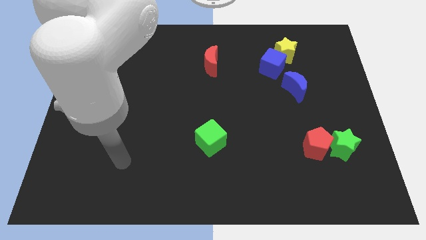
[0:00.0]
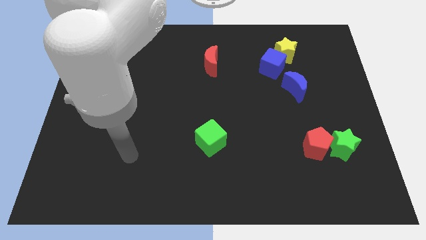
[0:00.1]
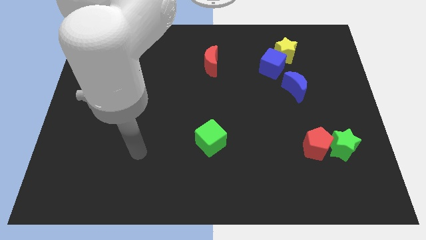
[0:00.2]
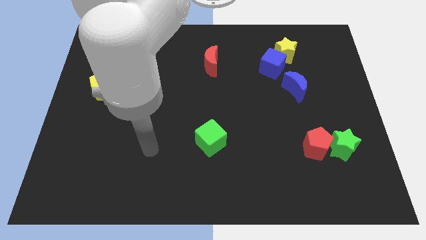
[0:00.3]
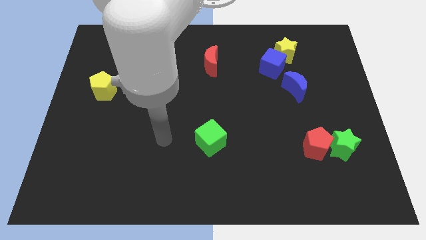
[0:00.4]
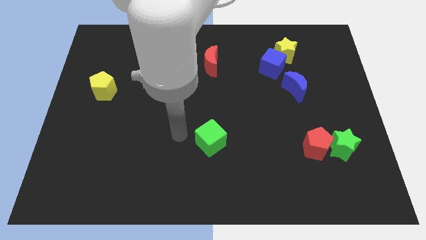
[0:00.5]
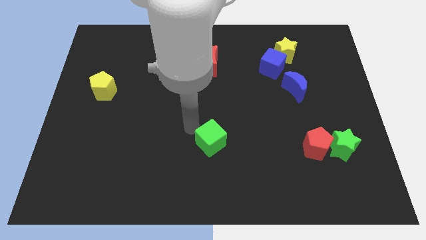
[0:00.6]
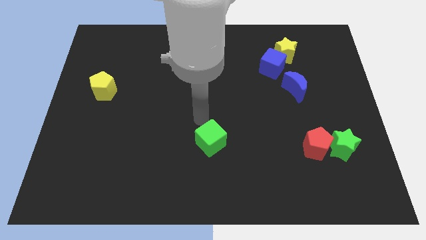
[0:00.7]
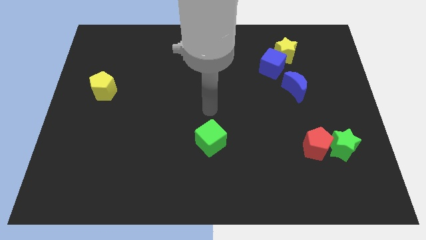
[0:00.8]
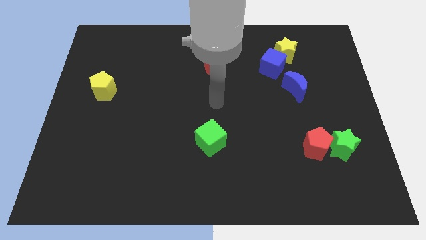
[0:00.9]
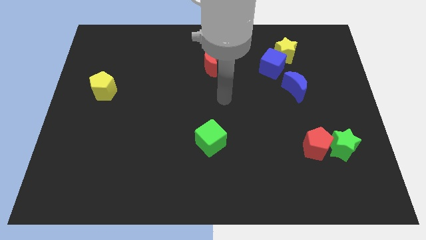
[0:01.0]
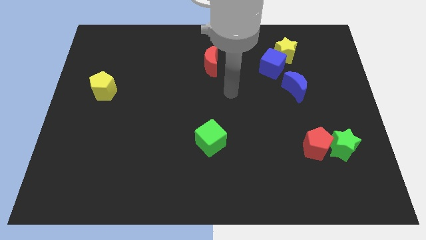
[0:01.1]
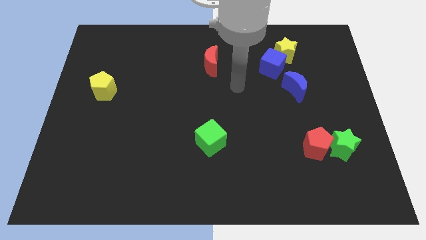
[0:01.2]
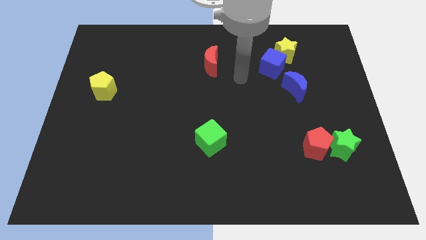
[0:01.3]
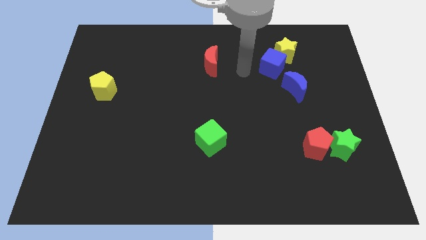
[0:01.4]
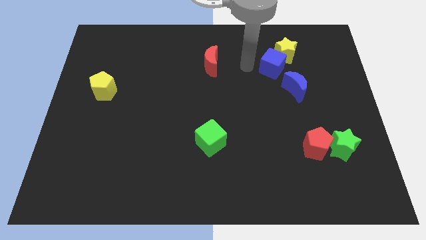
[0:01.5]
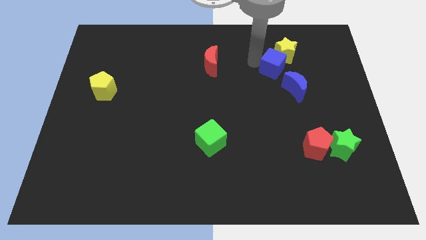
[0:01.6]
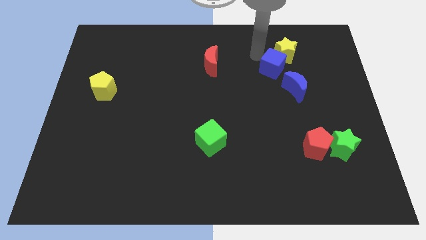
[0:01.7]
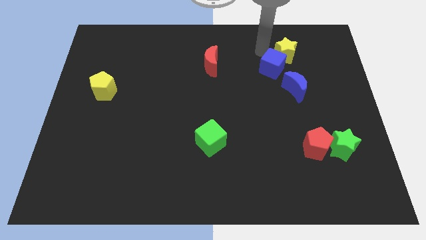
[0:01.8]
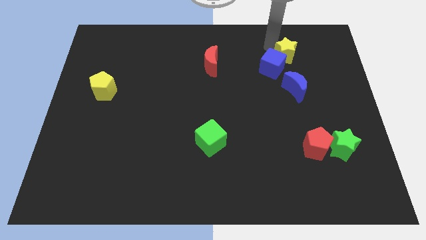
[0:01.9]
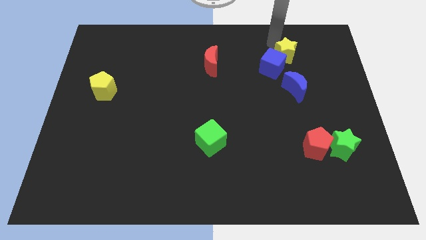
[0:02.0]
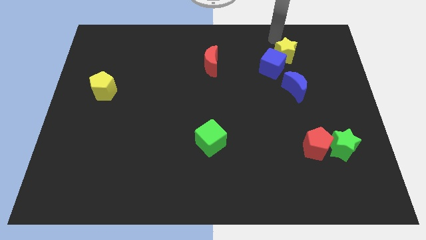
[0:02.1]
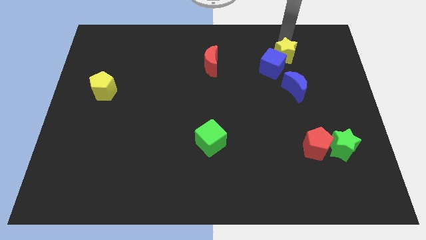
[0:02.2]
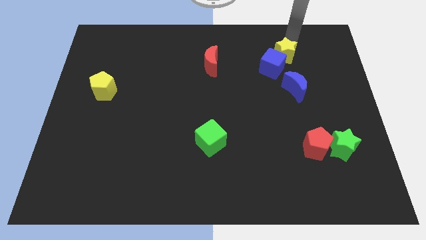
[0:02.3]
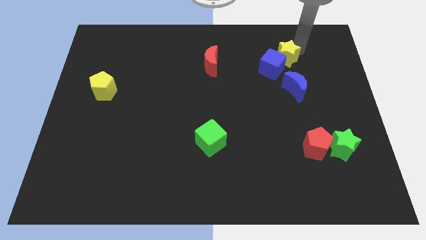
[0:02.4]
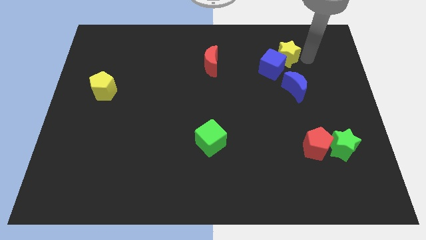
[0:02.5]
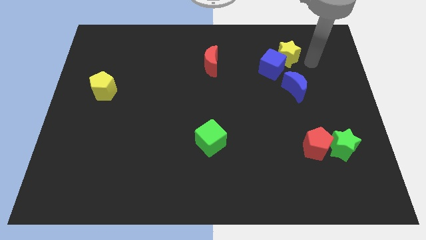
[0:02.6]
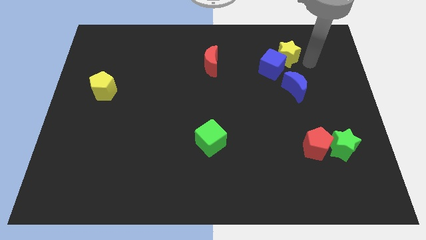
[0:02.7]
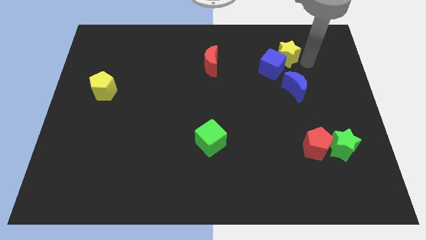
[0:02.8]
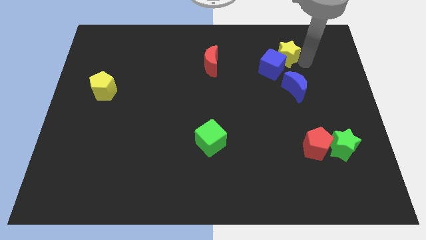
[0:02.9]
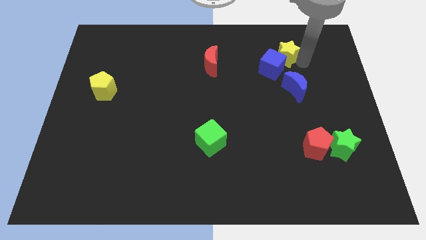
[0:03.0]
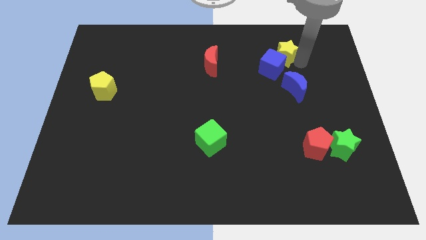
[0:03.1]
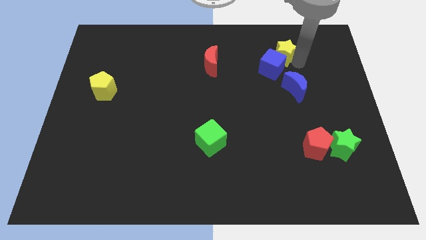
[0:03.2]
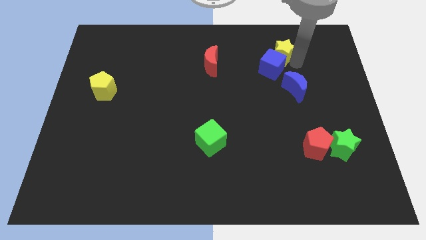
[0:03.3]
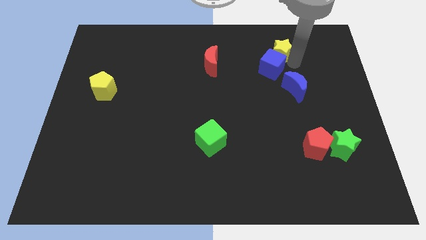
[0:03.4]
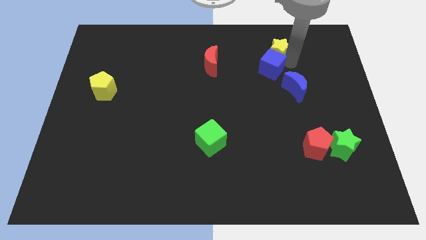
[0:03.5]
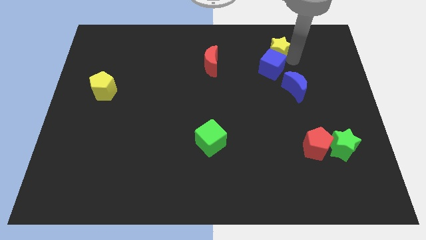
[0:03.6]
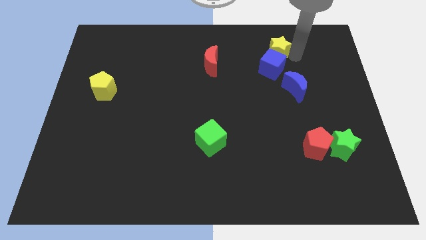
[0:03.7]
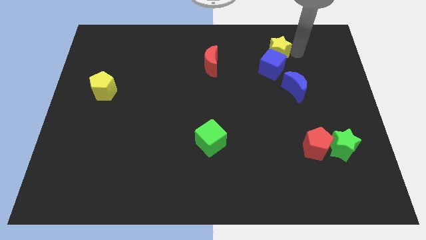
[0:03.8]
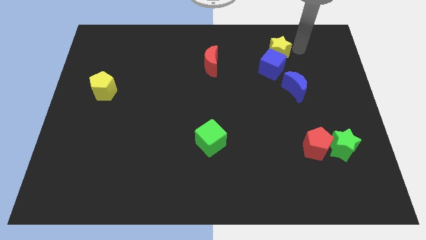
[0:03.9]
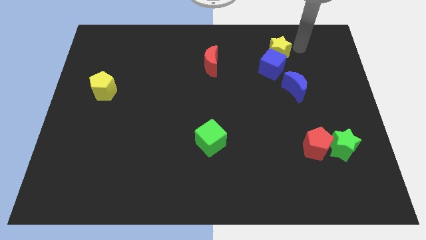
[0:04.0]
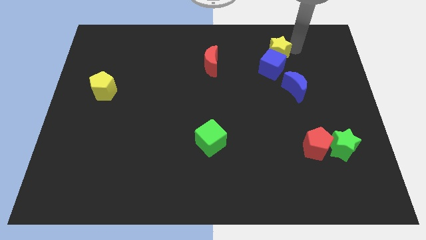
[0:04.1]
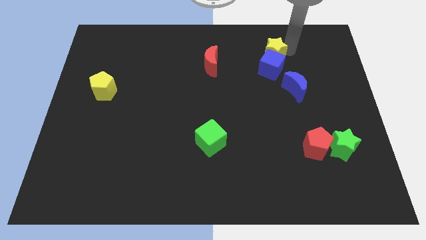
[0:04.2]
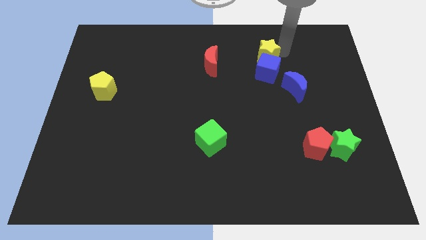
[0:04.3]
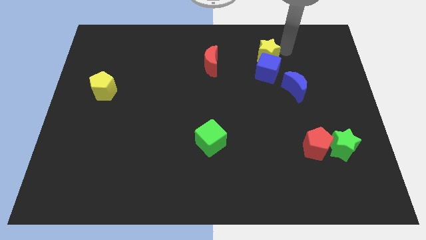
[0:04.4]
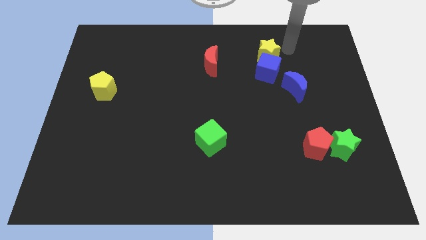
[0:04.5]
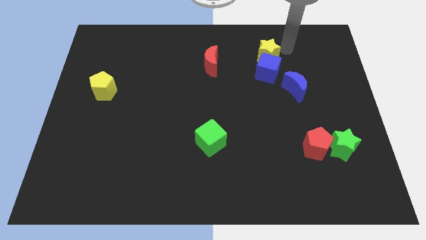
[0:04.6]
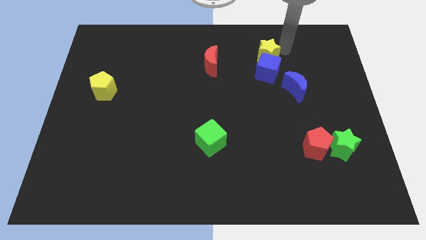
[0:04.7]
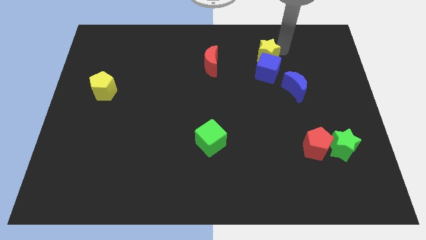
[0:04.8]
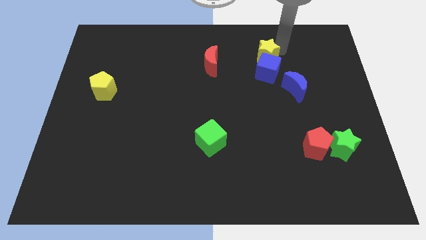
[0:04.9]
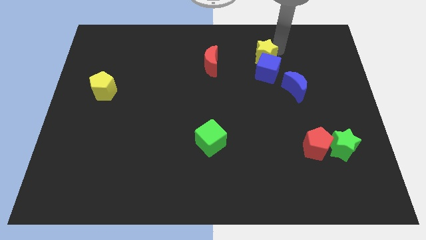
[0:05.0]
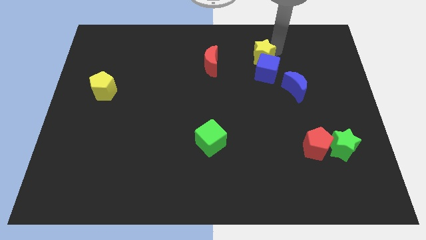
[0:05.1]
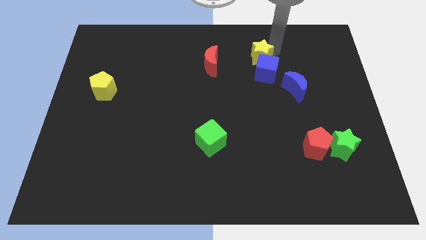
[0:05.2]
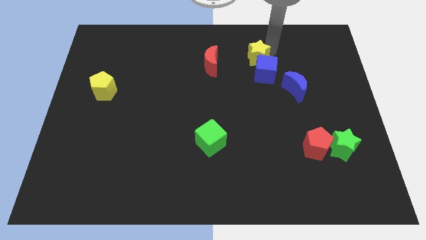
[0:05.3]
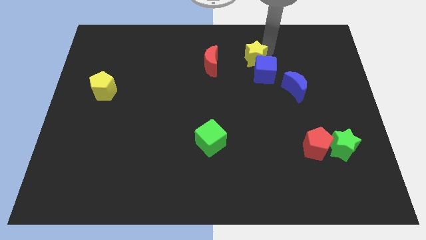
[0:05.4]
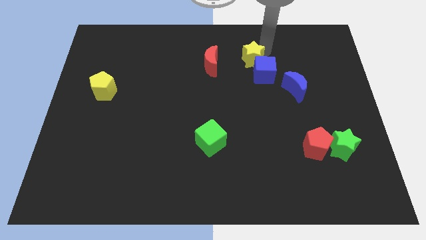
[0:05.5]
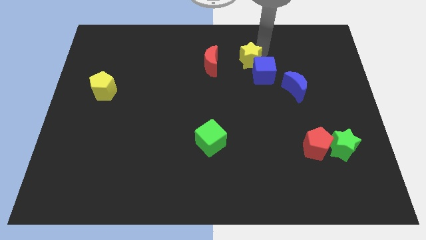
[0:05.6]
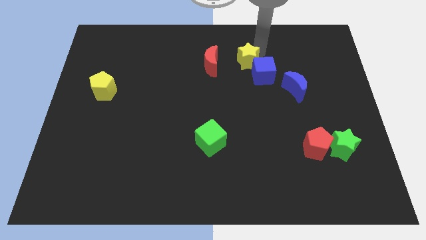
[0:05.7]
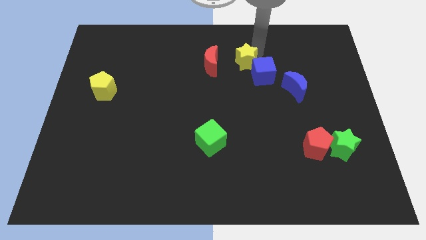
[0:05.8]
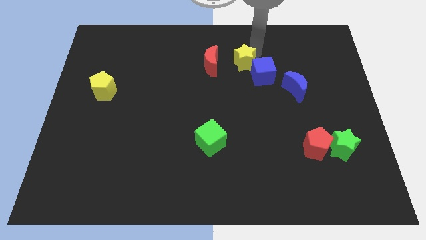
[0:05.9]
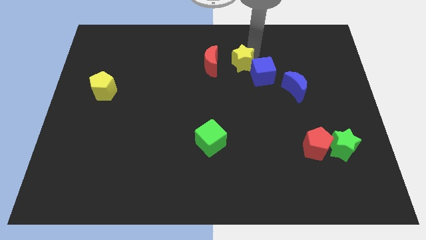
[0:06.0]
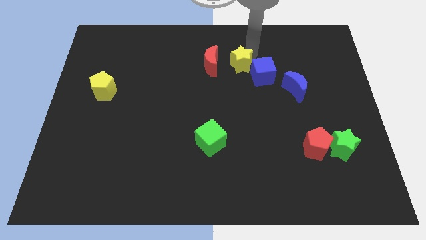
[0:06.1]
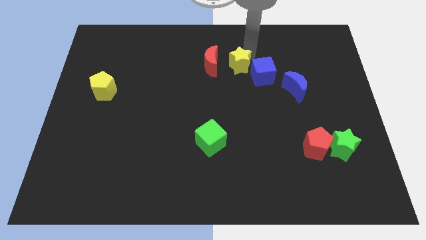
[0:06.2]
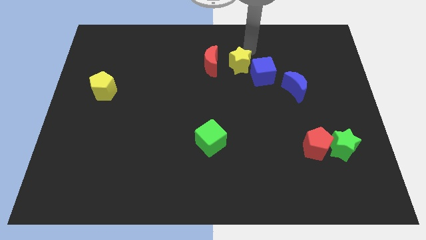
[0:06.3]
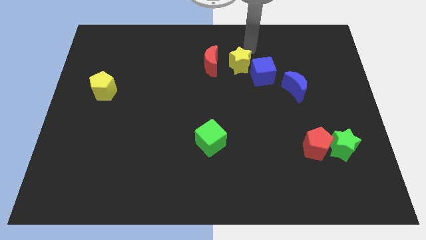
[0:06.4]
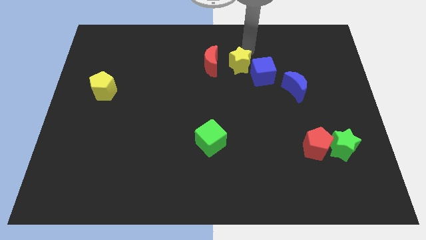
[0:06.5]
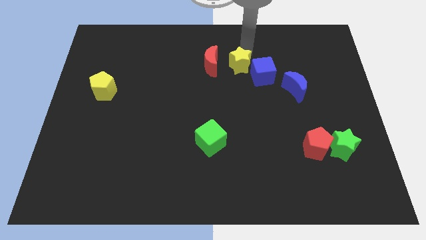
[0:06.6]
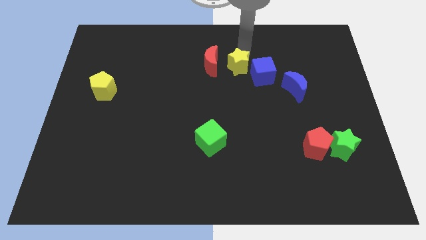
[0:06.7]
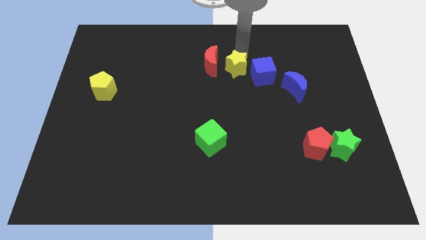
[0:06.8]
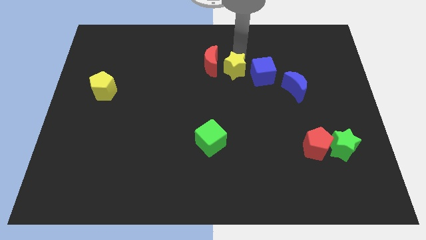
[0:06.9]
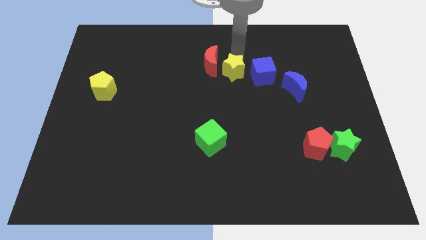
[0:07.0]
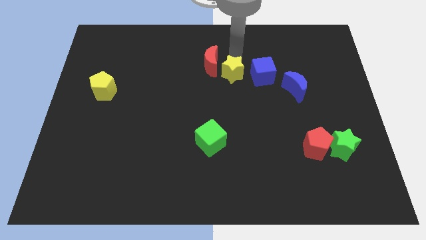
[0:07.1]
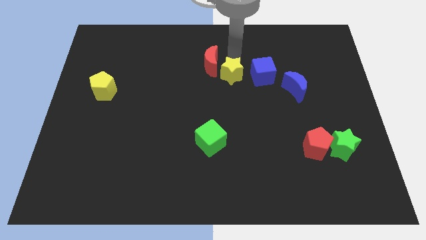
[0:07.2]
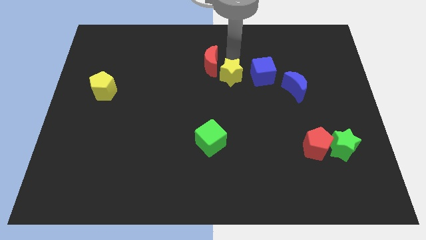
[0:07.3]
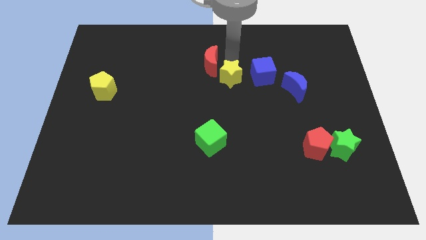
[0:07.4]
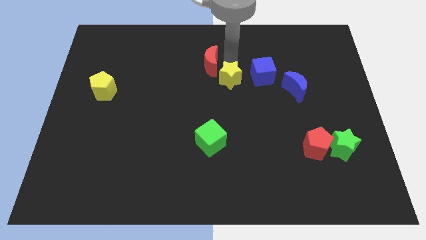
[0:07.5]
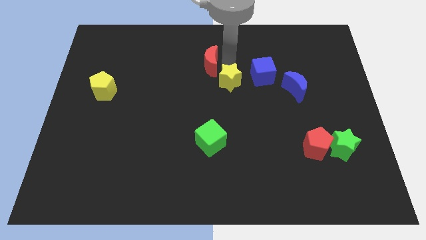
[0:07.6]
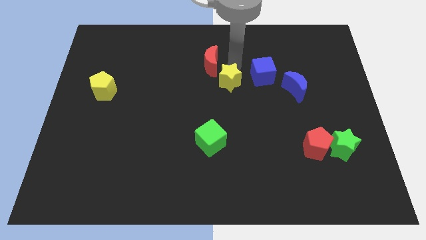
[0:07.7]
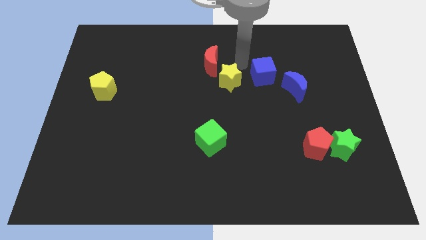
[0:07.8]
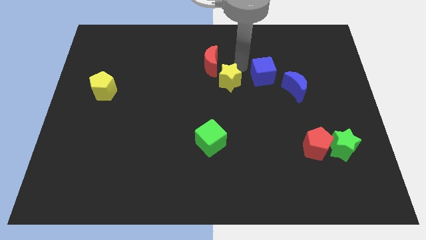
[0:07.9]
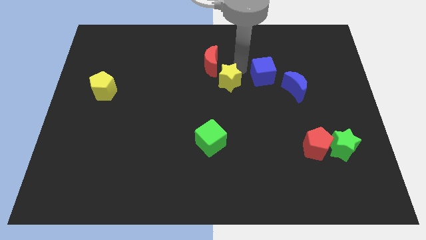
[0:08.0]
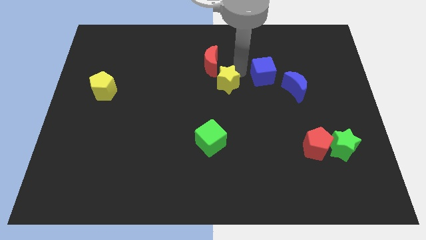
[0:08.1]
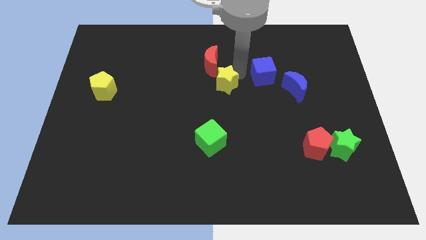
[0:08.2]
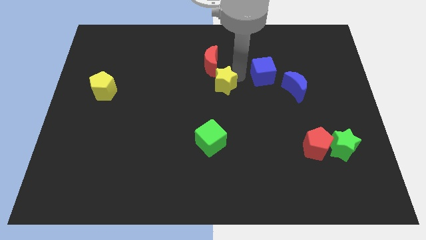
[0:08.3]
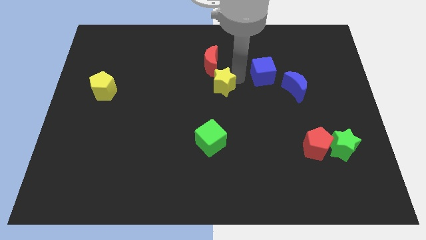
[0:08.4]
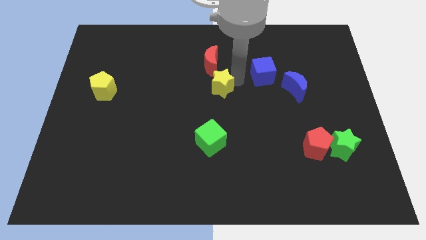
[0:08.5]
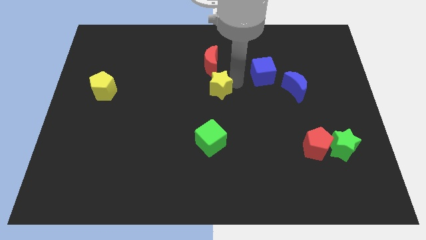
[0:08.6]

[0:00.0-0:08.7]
push the yellow star down and then to the left
